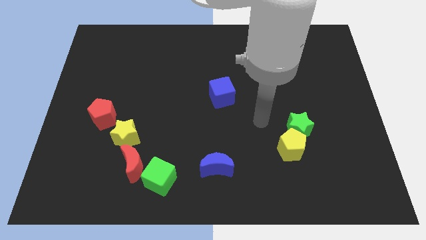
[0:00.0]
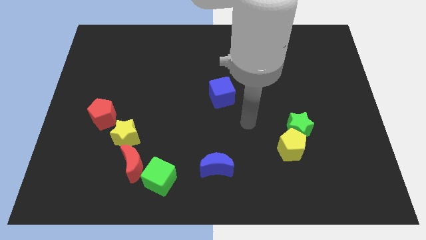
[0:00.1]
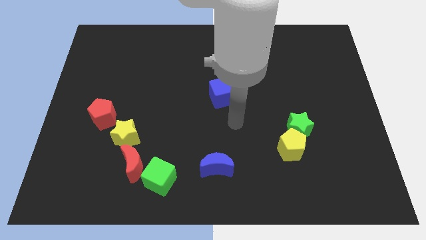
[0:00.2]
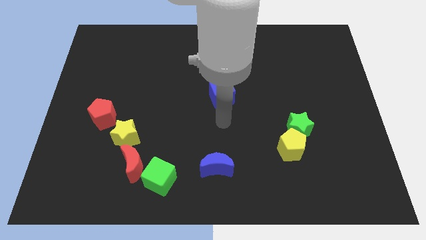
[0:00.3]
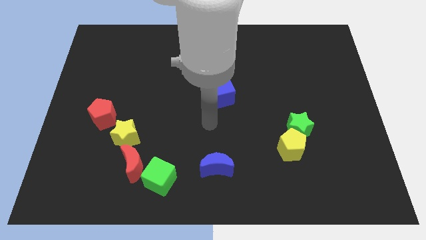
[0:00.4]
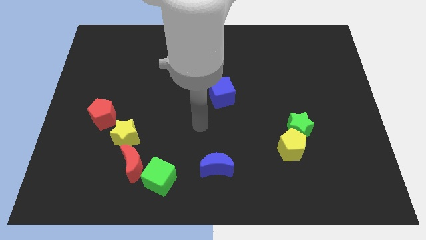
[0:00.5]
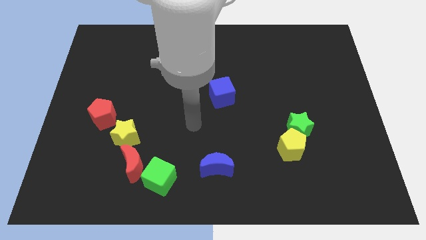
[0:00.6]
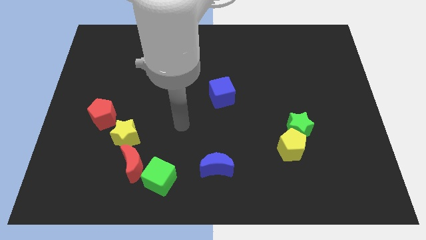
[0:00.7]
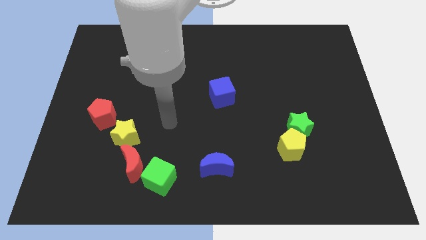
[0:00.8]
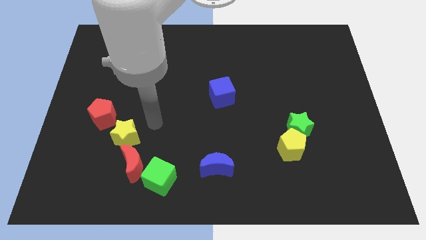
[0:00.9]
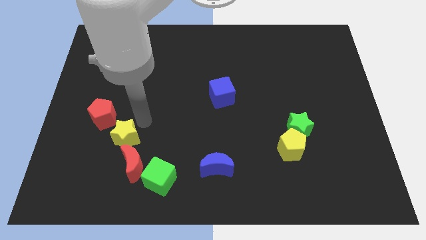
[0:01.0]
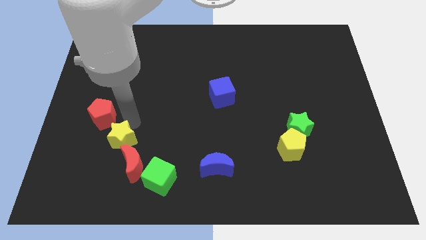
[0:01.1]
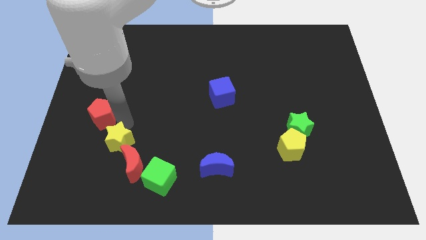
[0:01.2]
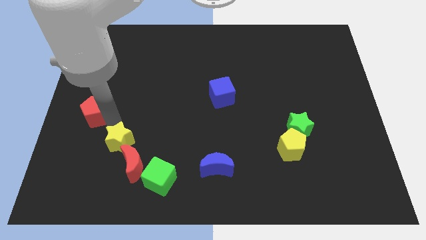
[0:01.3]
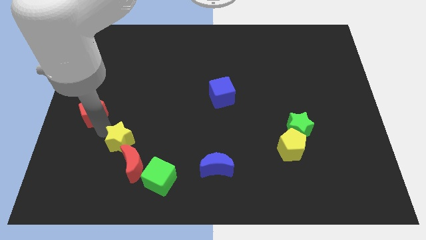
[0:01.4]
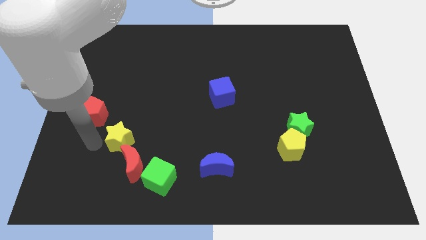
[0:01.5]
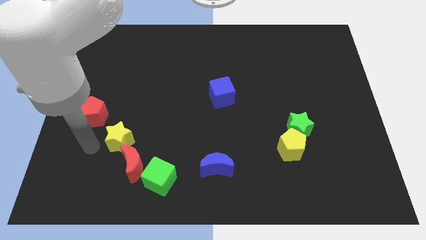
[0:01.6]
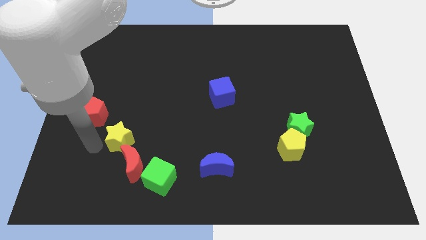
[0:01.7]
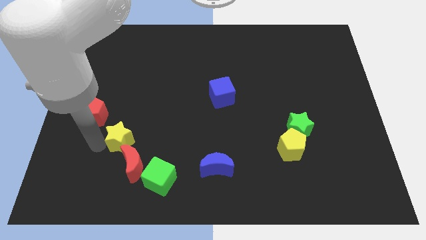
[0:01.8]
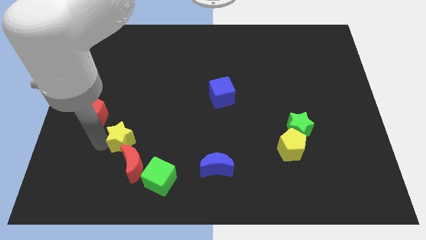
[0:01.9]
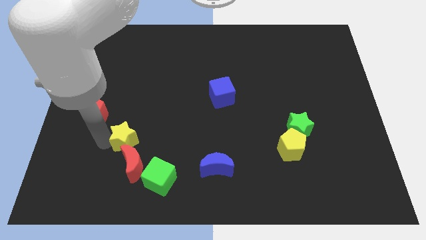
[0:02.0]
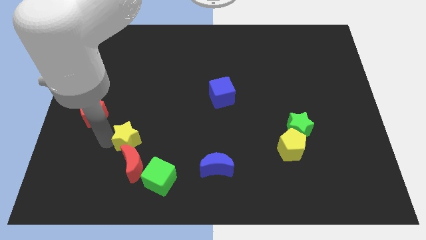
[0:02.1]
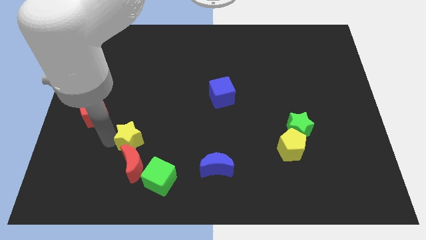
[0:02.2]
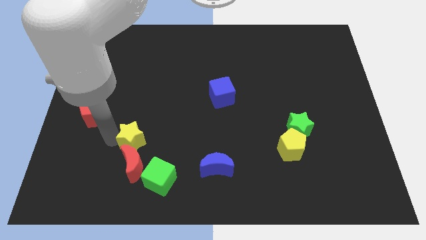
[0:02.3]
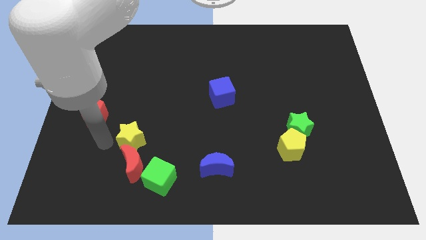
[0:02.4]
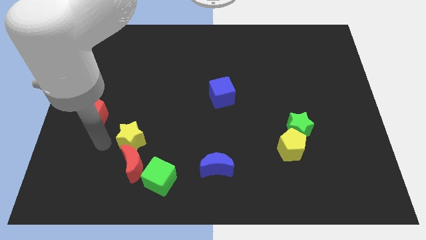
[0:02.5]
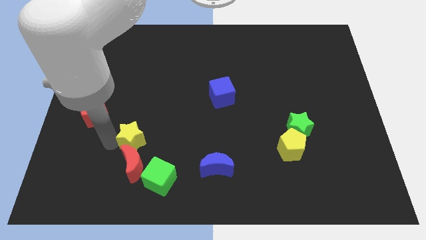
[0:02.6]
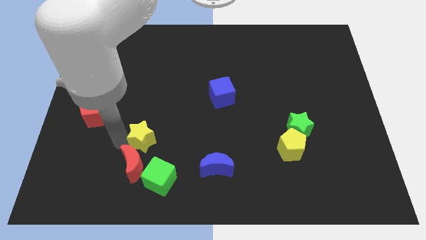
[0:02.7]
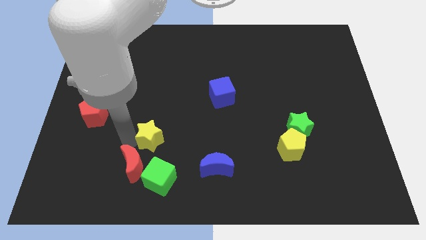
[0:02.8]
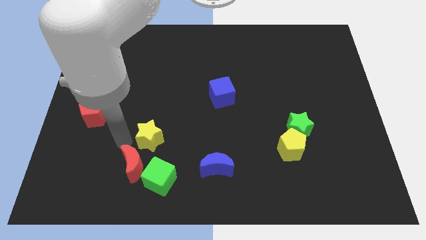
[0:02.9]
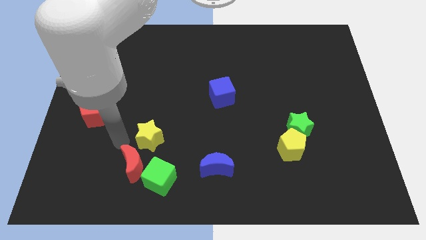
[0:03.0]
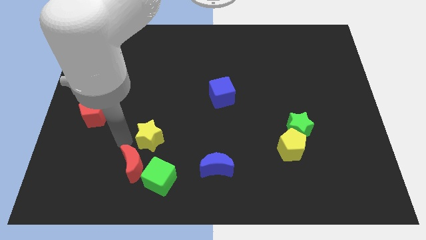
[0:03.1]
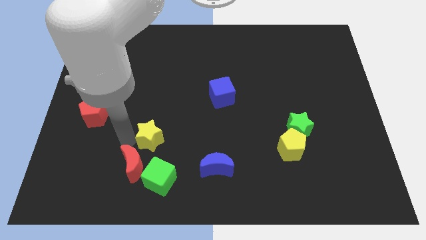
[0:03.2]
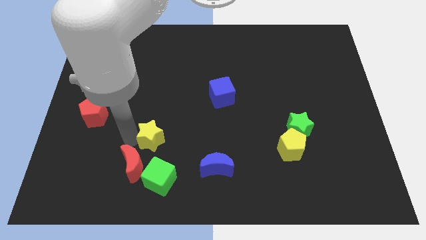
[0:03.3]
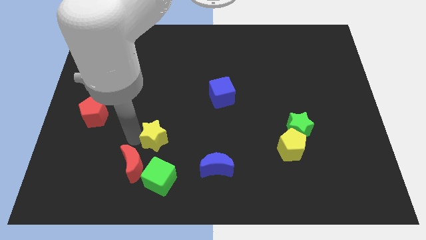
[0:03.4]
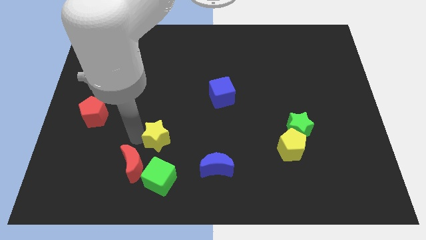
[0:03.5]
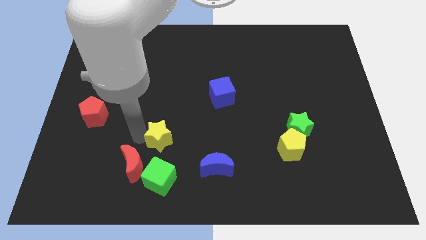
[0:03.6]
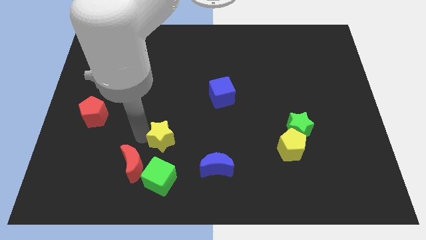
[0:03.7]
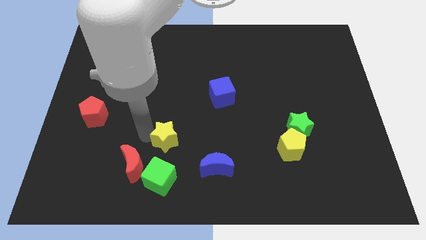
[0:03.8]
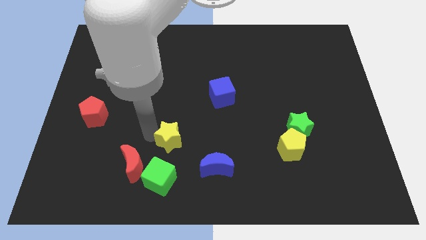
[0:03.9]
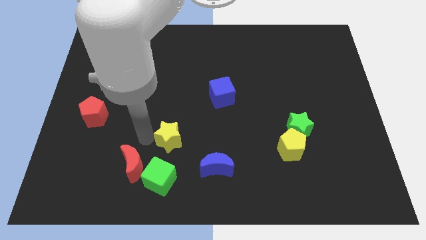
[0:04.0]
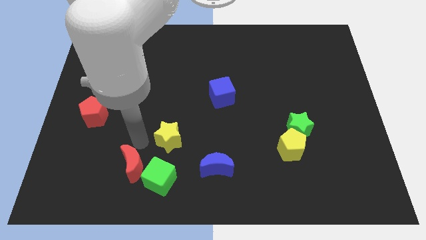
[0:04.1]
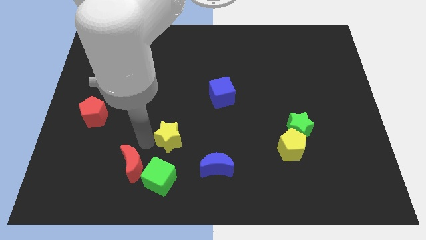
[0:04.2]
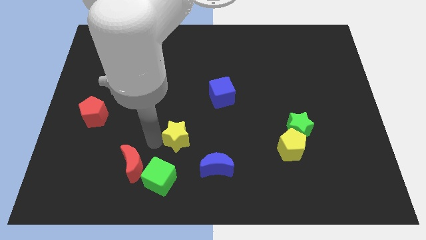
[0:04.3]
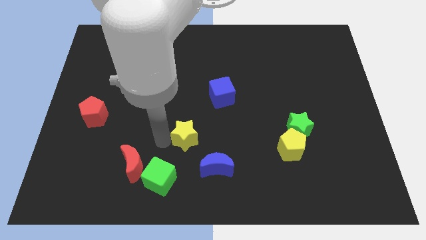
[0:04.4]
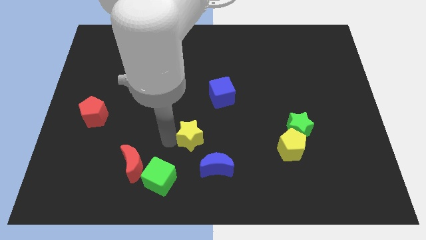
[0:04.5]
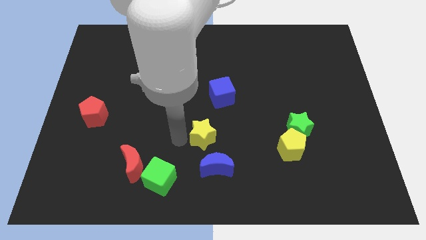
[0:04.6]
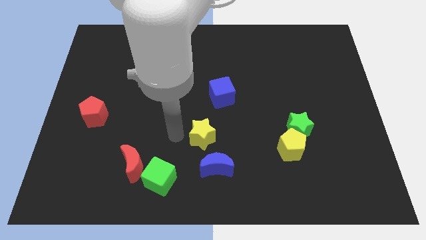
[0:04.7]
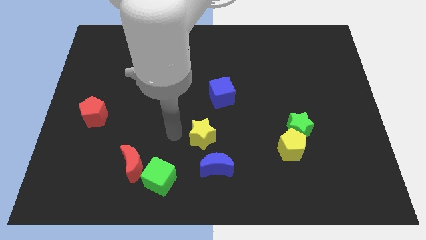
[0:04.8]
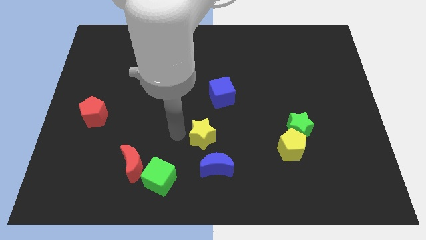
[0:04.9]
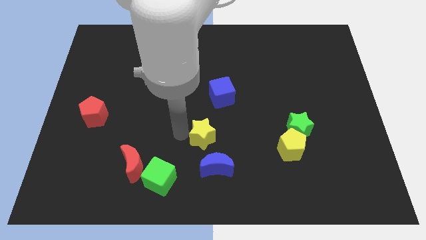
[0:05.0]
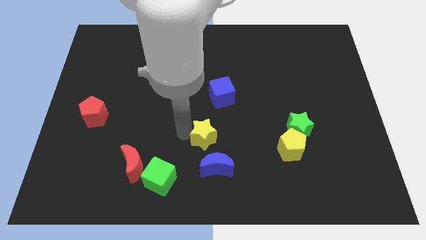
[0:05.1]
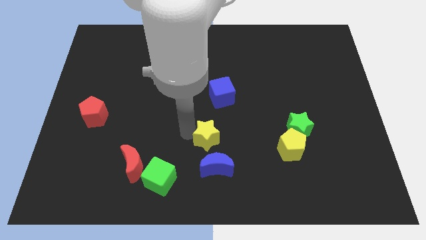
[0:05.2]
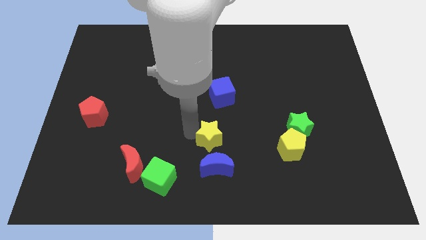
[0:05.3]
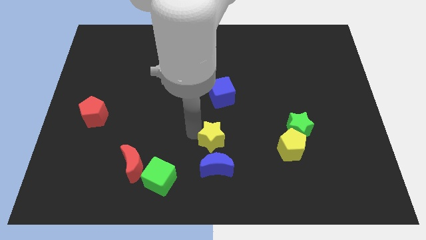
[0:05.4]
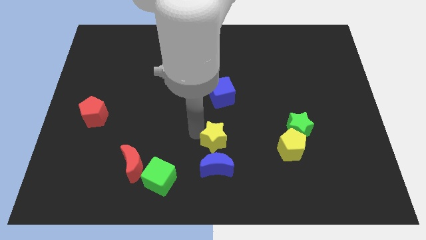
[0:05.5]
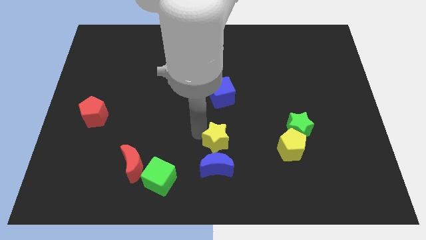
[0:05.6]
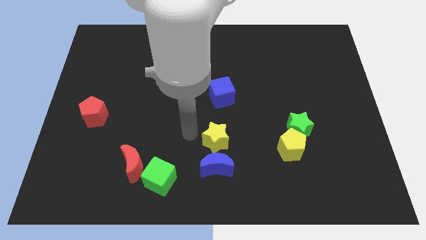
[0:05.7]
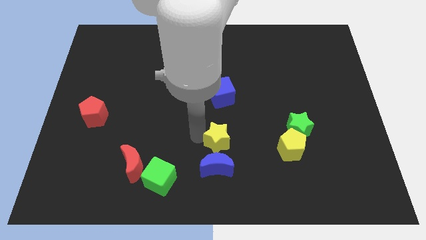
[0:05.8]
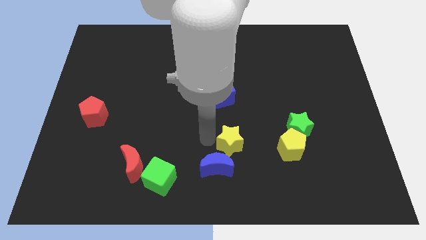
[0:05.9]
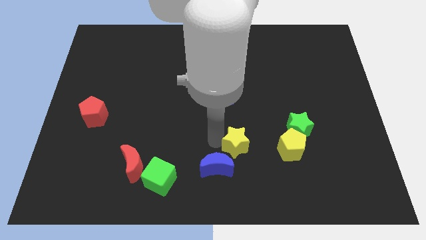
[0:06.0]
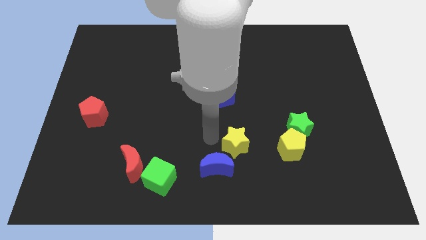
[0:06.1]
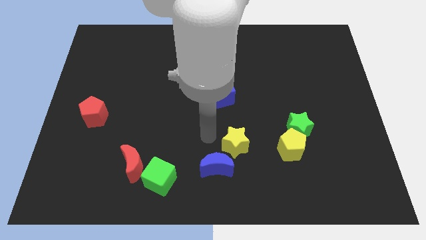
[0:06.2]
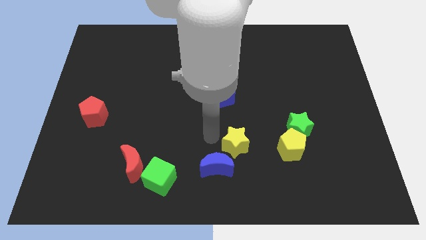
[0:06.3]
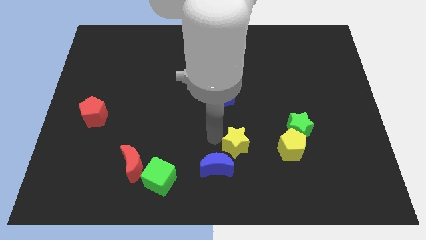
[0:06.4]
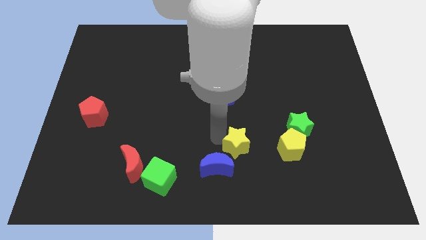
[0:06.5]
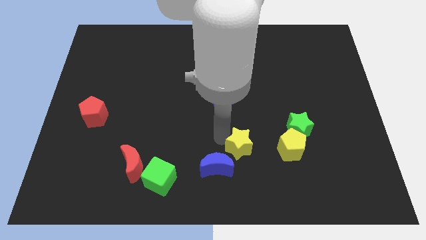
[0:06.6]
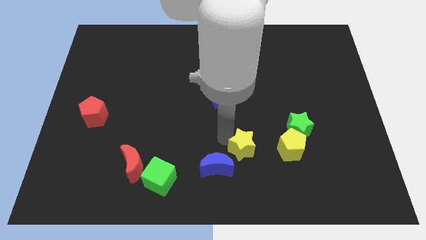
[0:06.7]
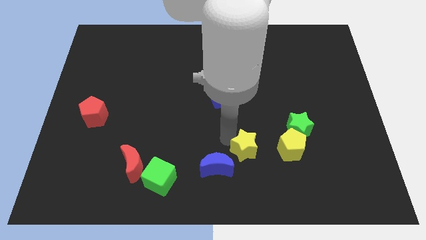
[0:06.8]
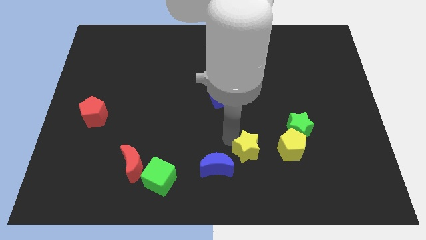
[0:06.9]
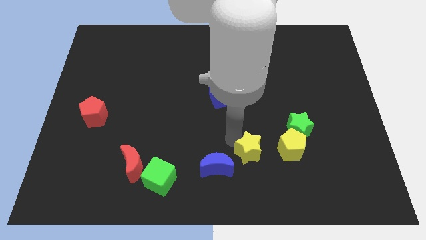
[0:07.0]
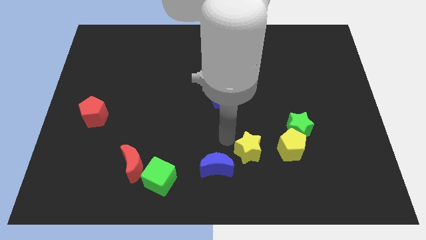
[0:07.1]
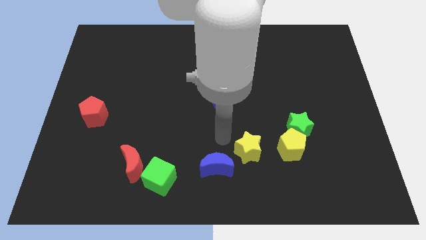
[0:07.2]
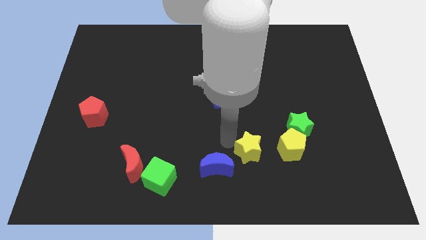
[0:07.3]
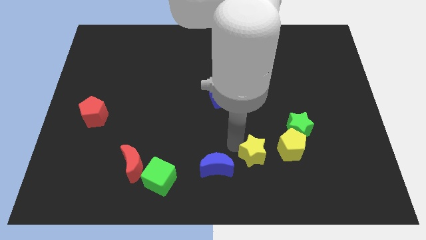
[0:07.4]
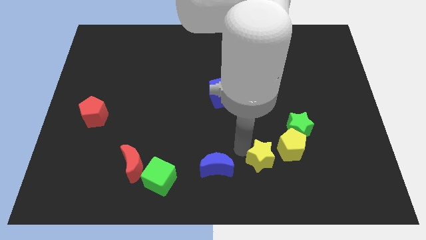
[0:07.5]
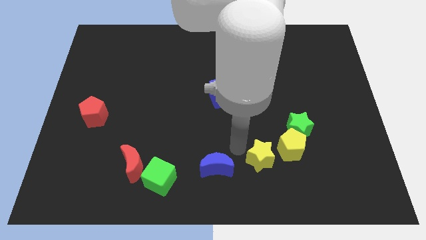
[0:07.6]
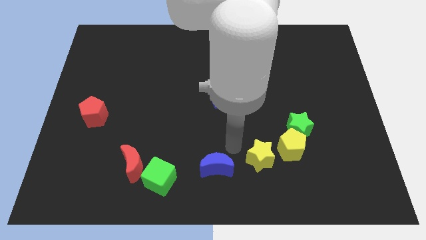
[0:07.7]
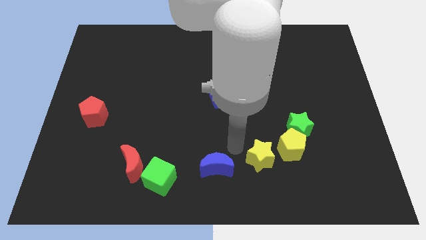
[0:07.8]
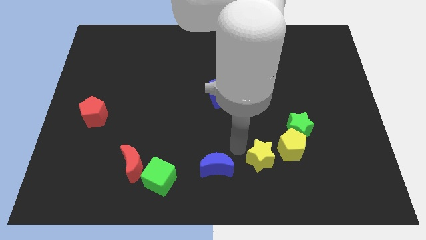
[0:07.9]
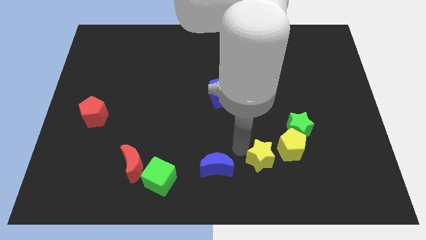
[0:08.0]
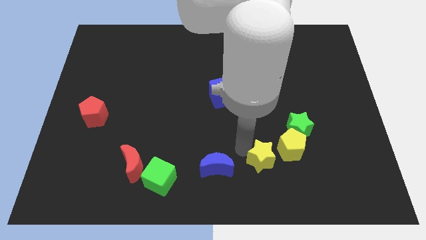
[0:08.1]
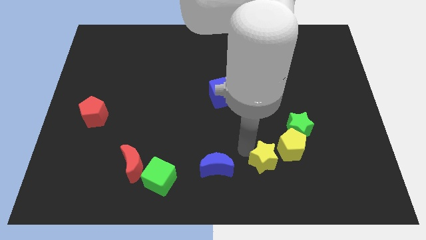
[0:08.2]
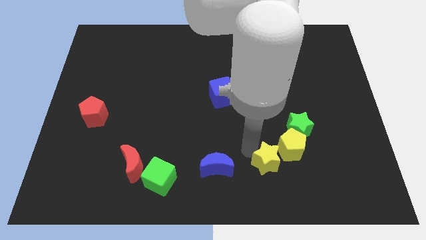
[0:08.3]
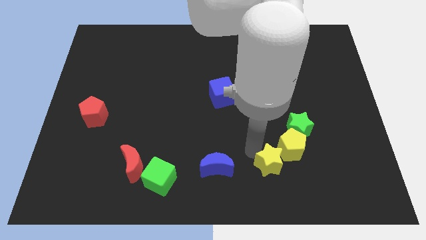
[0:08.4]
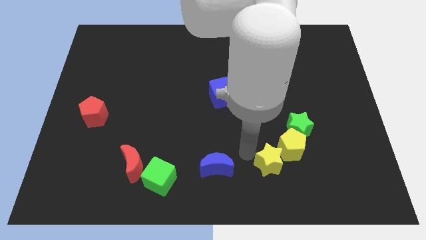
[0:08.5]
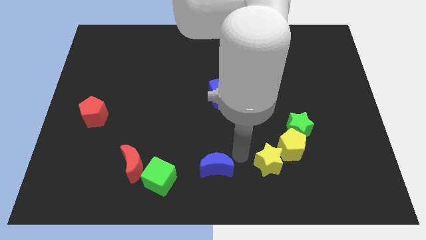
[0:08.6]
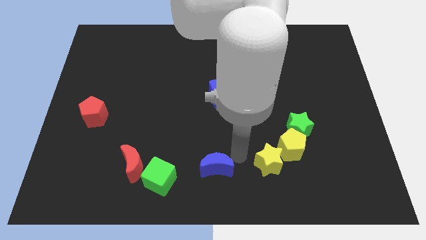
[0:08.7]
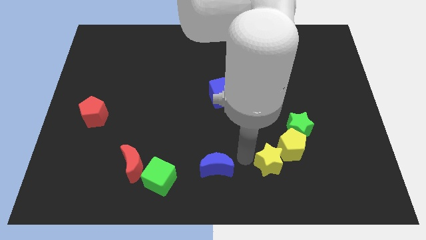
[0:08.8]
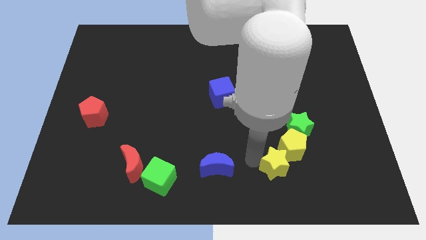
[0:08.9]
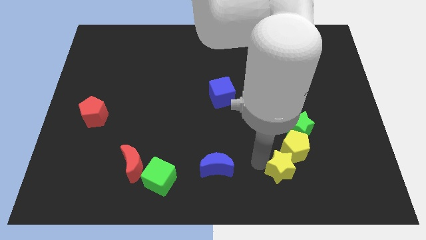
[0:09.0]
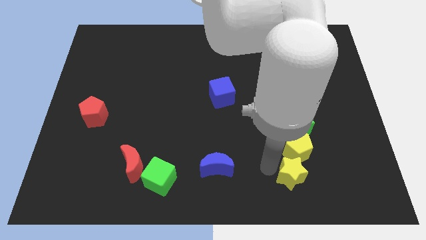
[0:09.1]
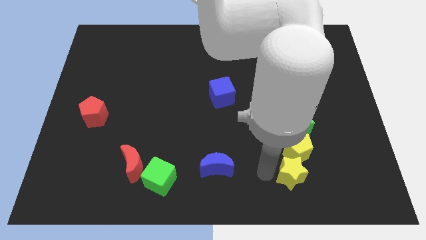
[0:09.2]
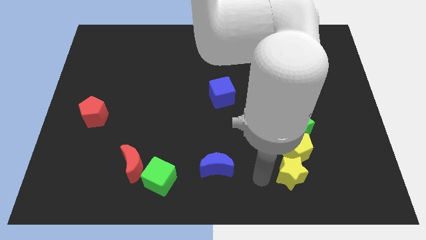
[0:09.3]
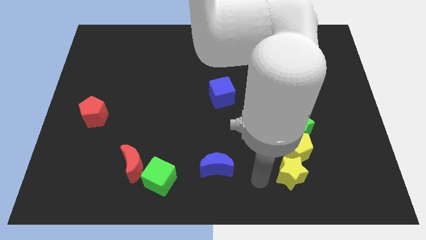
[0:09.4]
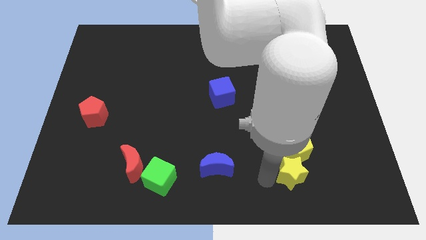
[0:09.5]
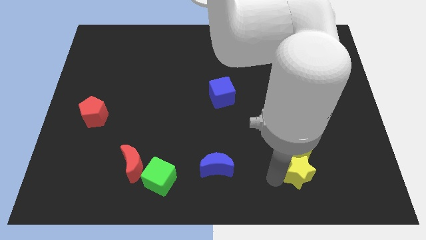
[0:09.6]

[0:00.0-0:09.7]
move the yellow star to the bottom right side of the yellow pentagon
